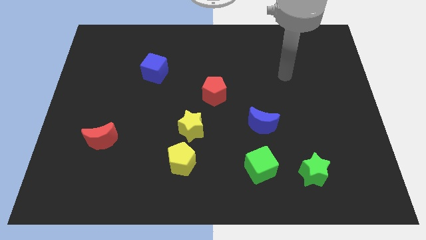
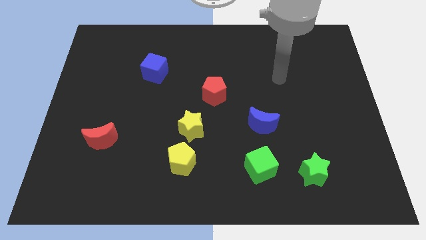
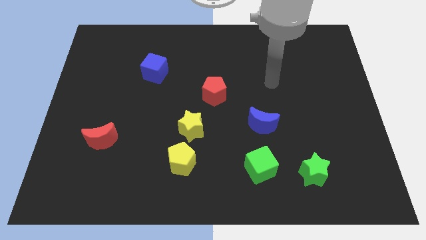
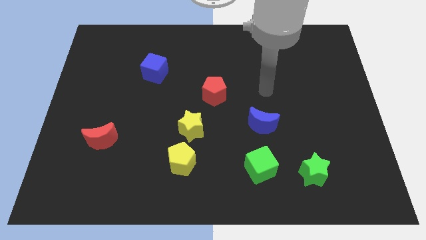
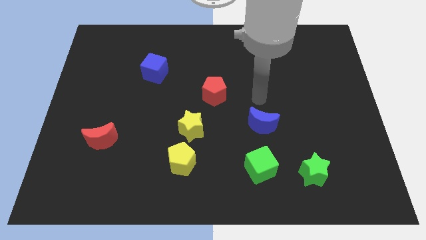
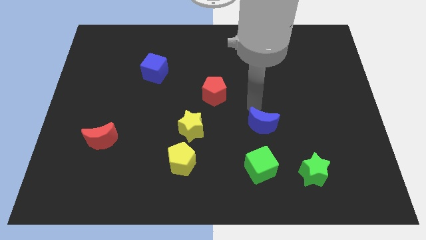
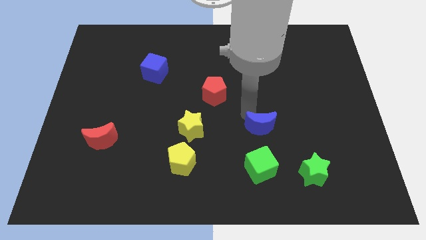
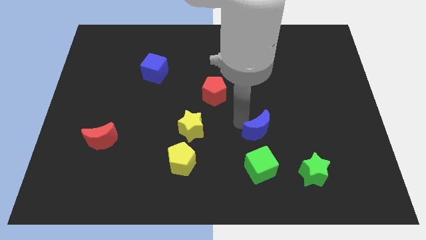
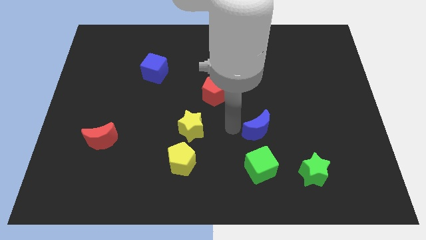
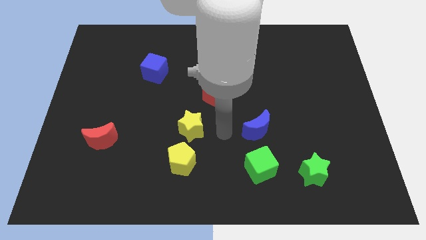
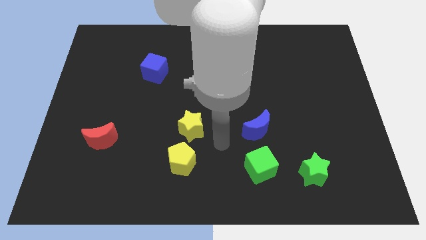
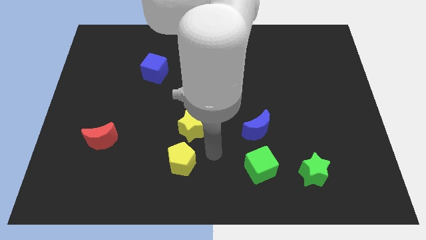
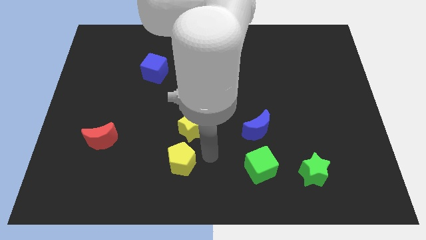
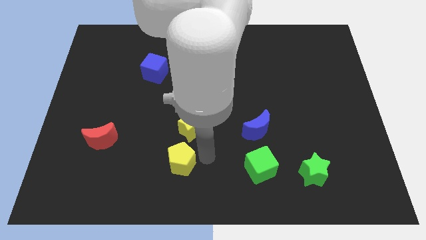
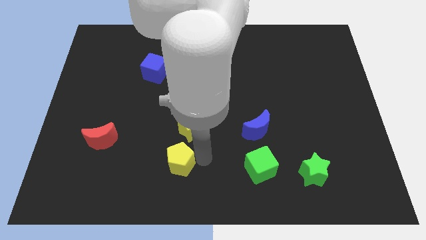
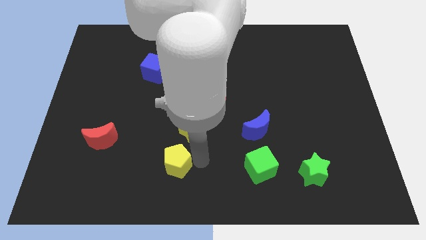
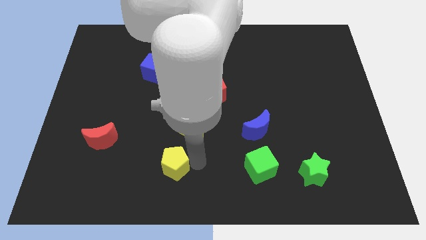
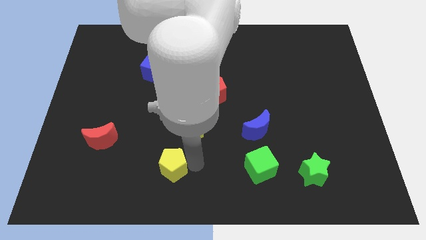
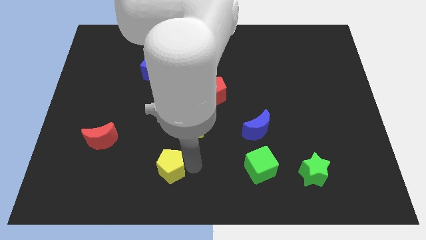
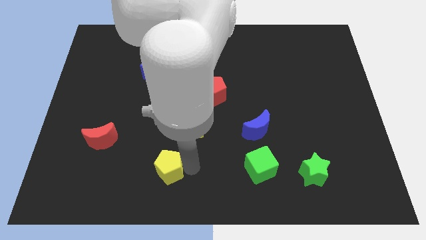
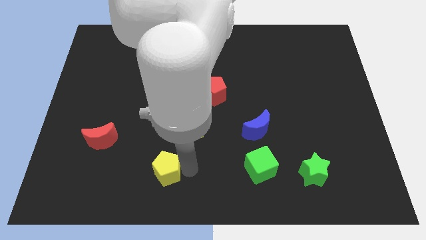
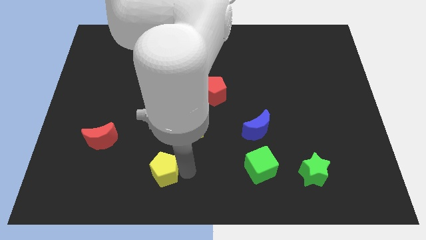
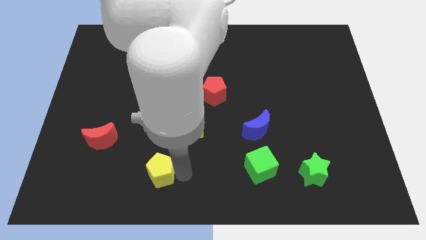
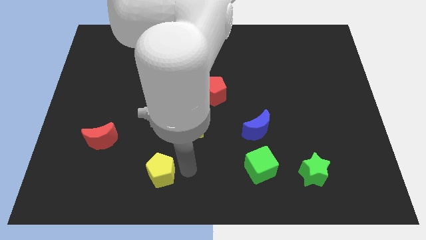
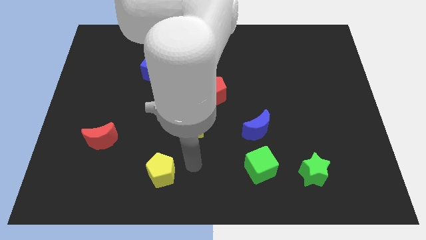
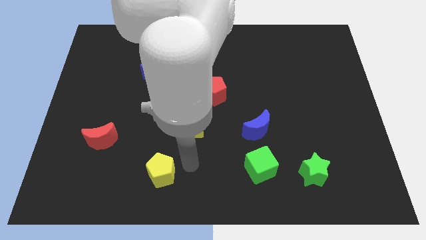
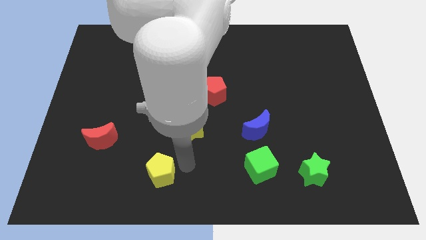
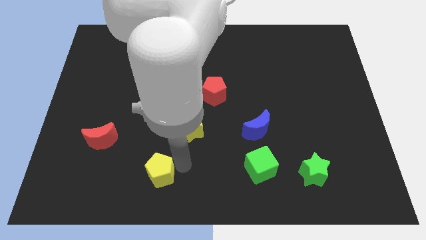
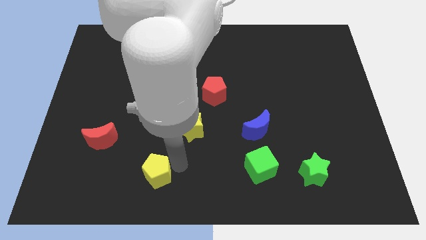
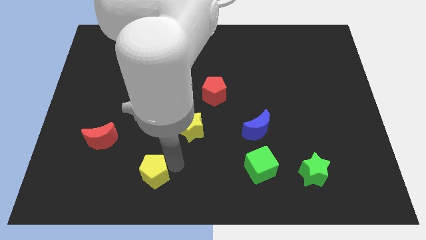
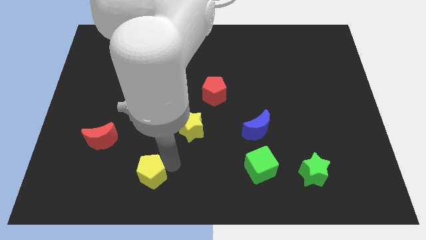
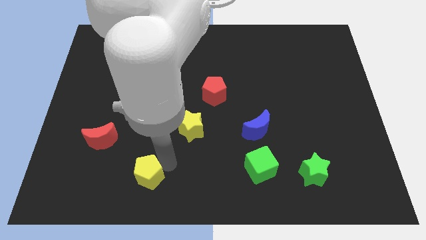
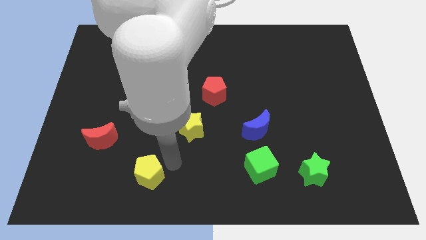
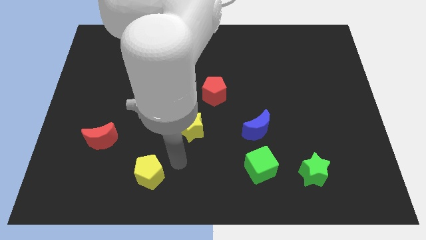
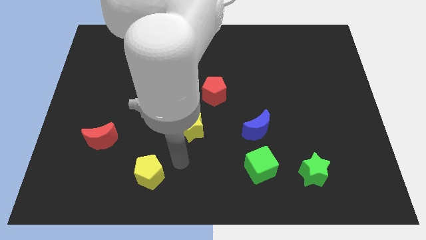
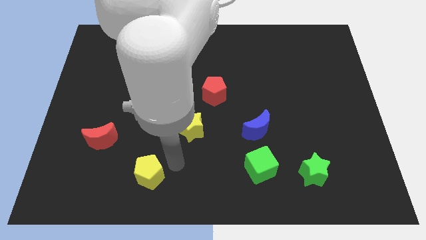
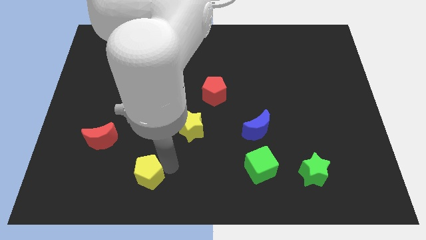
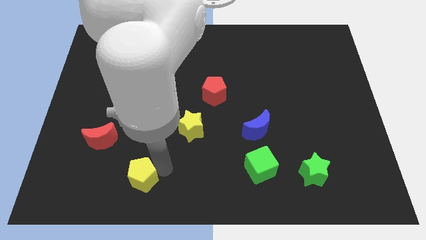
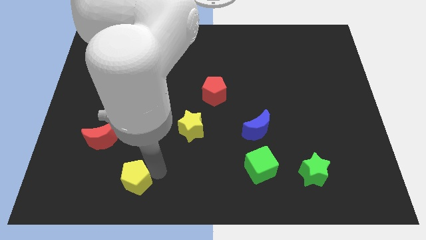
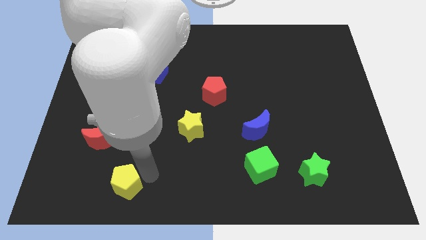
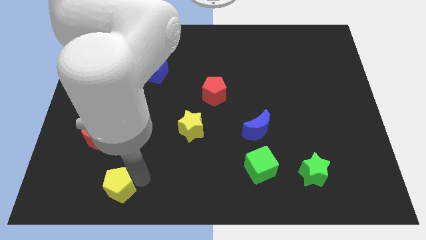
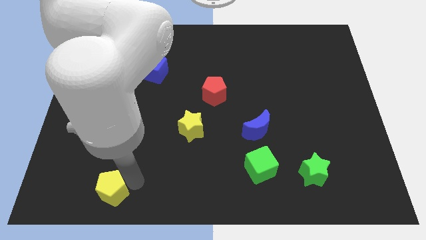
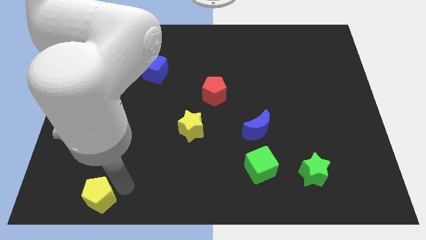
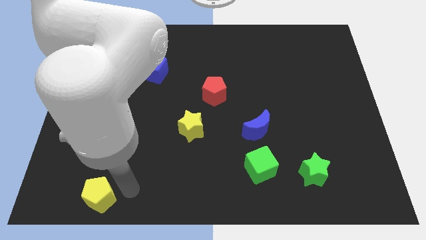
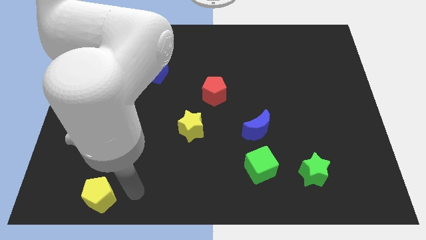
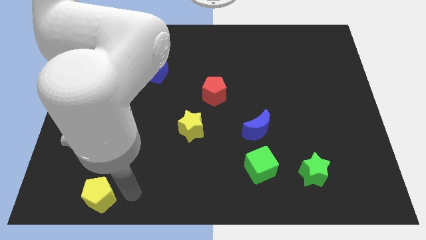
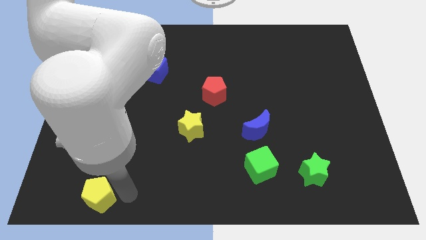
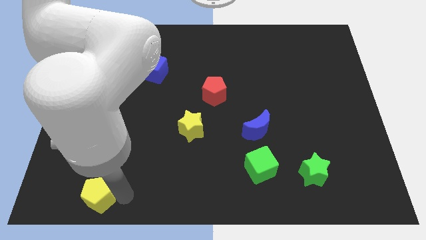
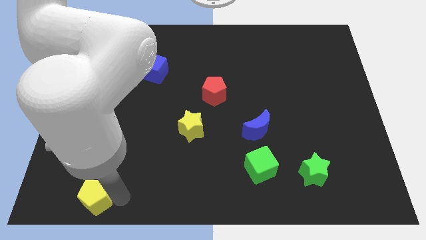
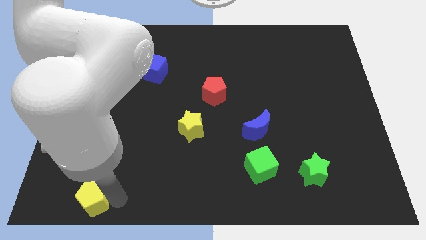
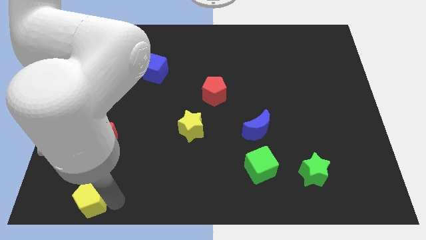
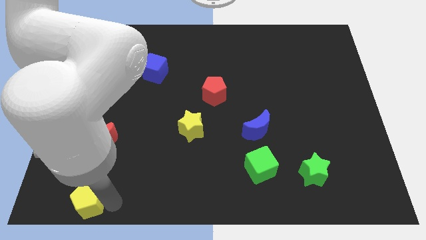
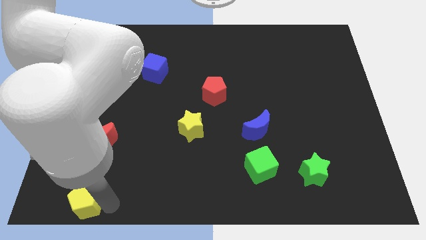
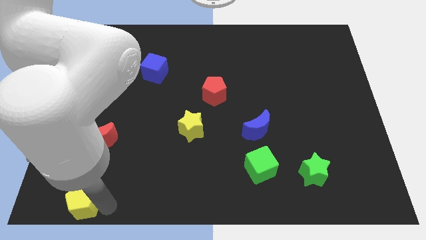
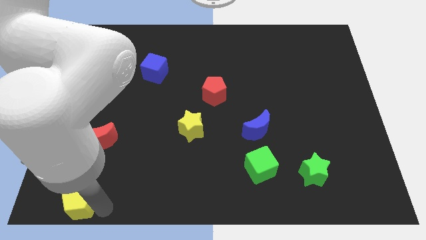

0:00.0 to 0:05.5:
slide the yellow pentagon to the bottom left corner
